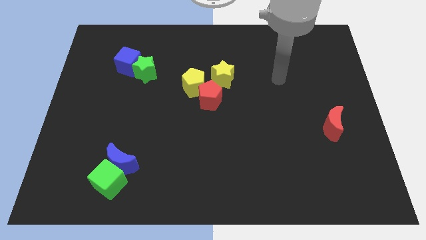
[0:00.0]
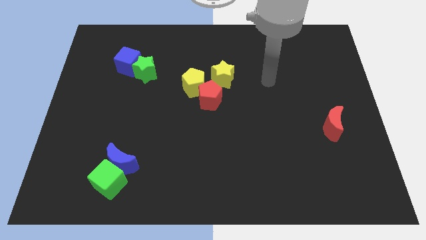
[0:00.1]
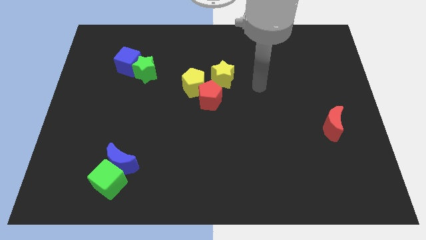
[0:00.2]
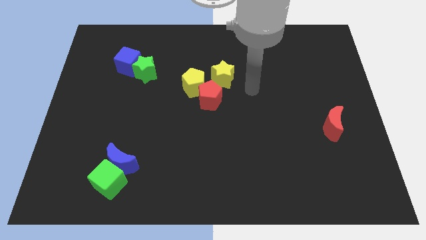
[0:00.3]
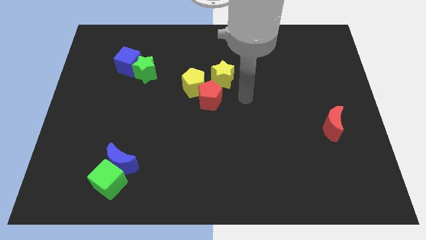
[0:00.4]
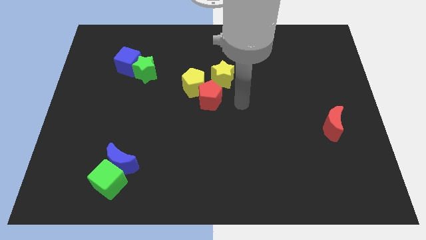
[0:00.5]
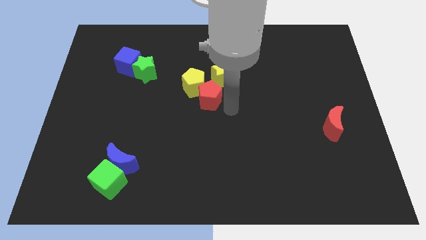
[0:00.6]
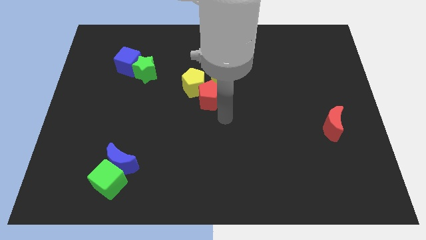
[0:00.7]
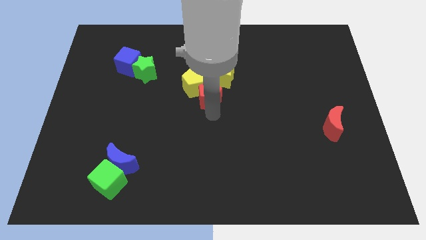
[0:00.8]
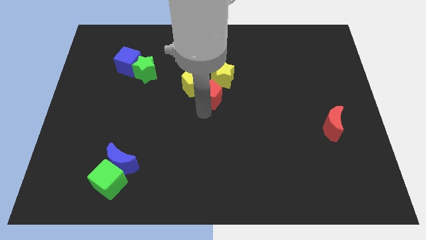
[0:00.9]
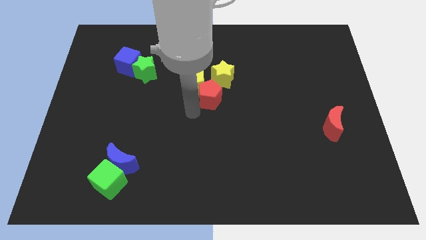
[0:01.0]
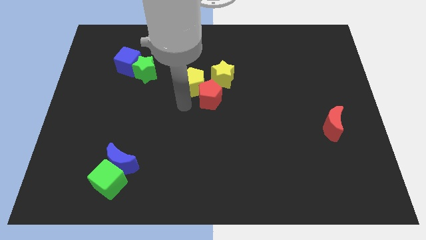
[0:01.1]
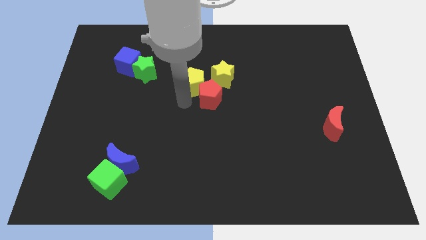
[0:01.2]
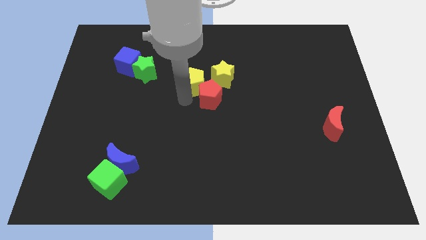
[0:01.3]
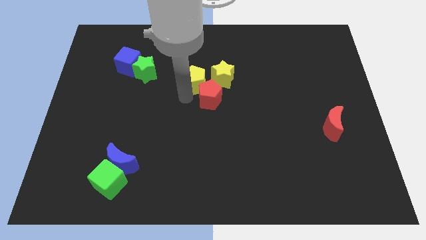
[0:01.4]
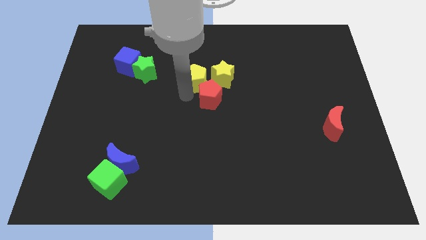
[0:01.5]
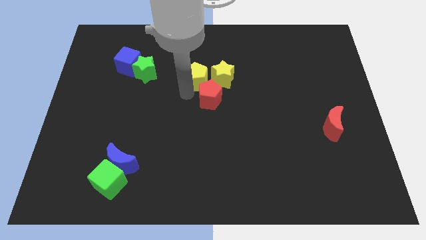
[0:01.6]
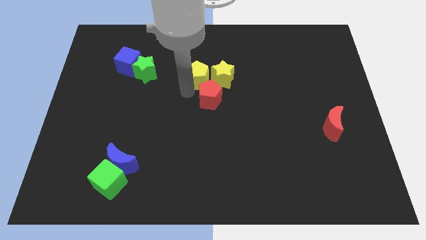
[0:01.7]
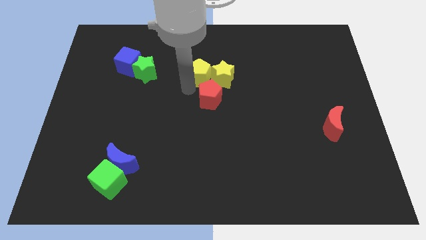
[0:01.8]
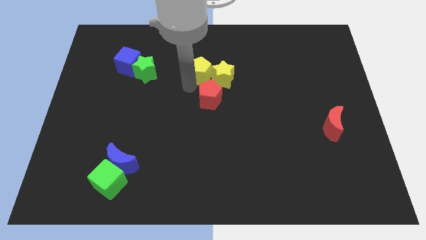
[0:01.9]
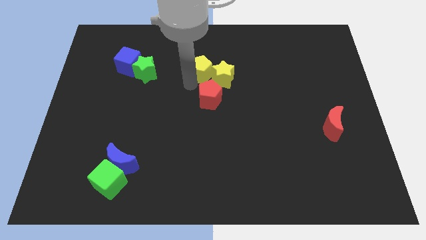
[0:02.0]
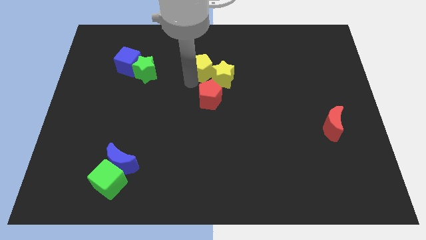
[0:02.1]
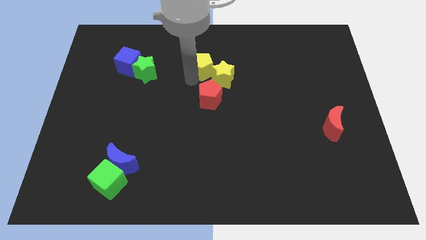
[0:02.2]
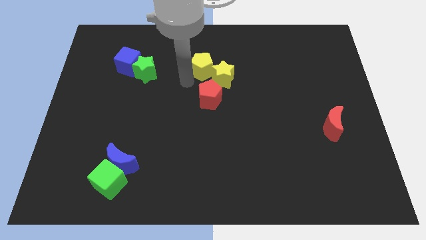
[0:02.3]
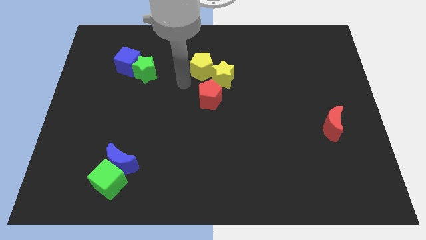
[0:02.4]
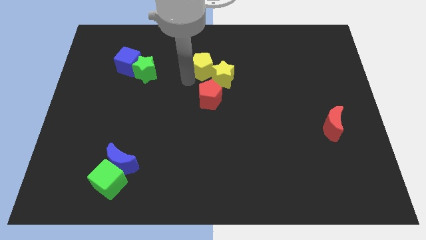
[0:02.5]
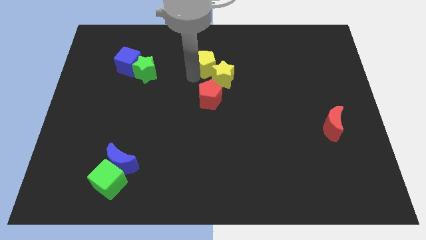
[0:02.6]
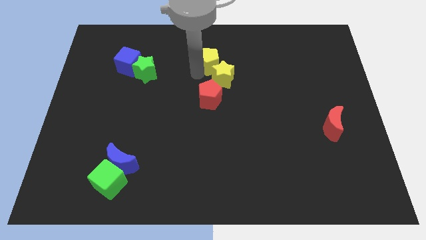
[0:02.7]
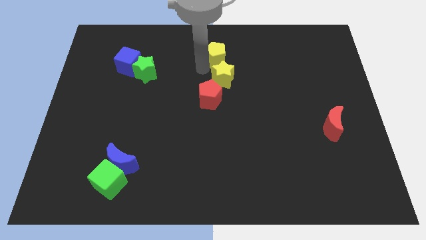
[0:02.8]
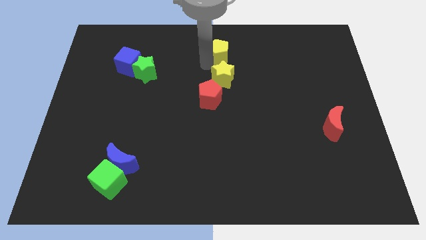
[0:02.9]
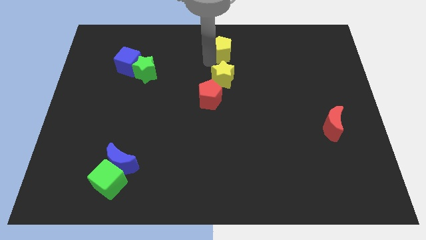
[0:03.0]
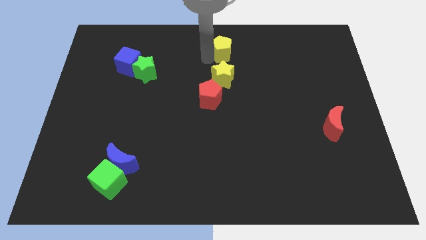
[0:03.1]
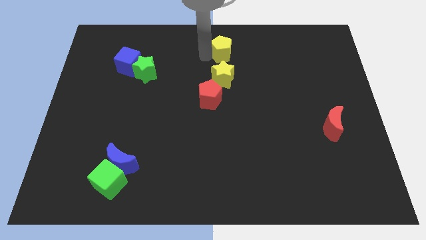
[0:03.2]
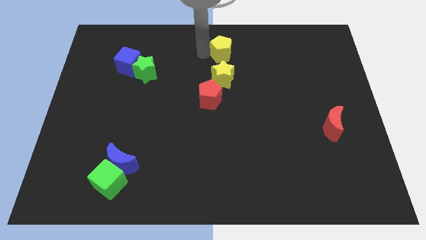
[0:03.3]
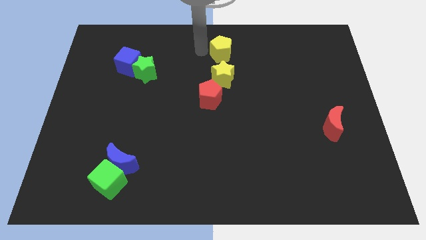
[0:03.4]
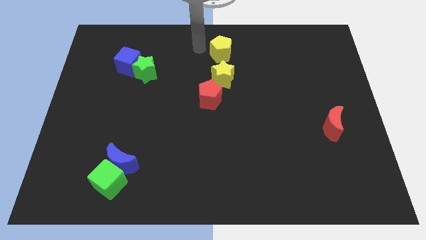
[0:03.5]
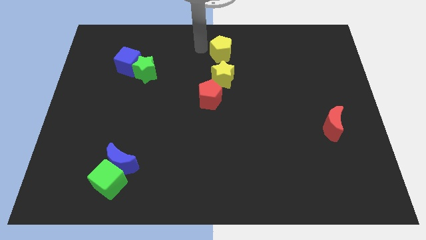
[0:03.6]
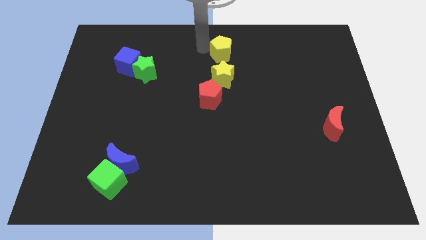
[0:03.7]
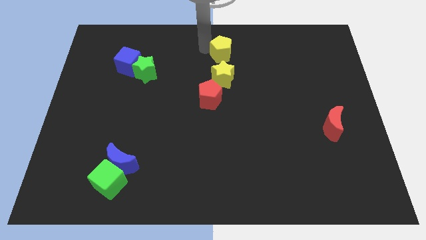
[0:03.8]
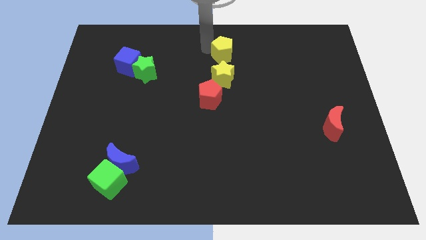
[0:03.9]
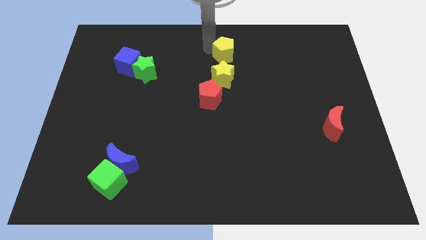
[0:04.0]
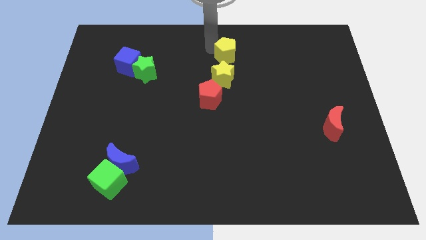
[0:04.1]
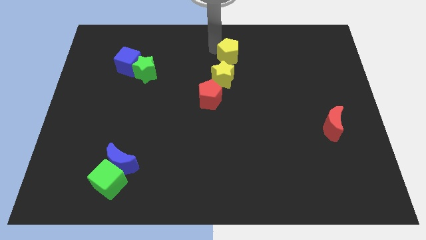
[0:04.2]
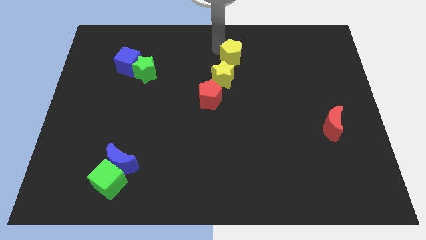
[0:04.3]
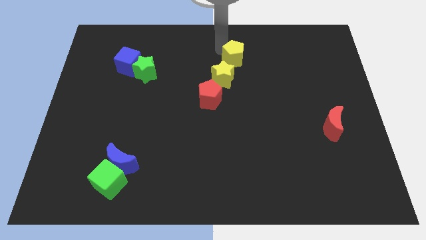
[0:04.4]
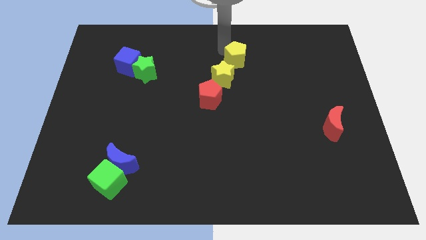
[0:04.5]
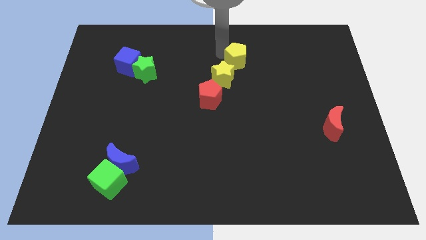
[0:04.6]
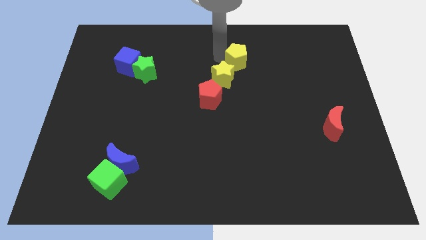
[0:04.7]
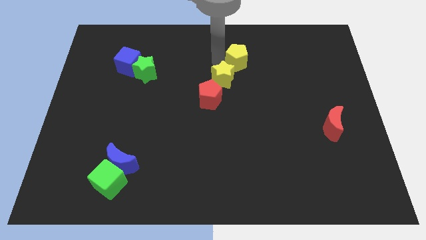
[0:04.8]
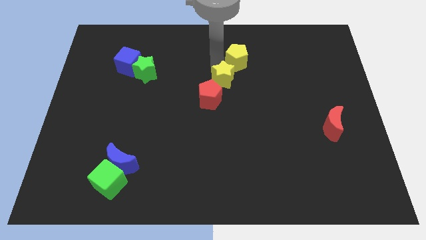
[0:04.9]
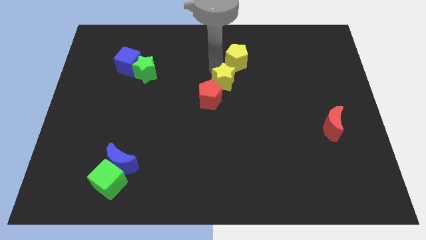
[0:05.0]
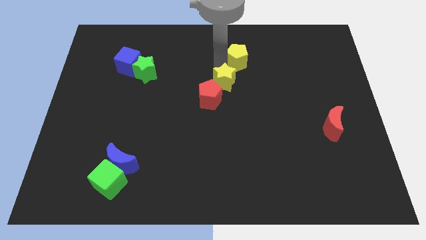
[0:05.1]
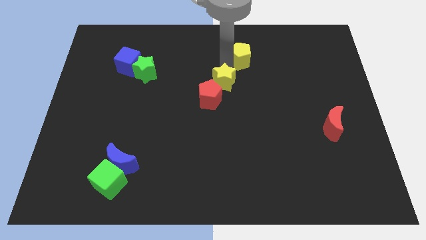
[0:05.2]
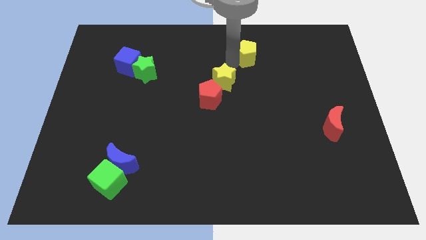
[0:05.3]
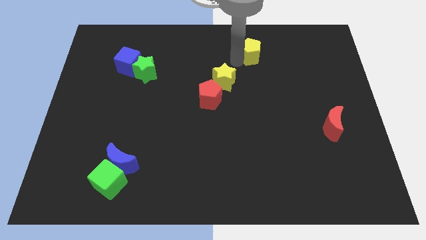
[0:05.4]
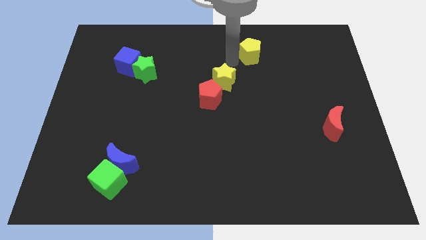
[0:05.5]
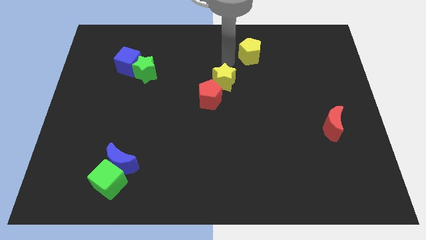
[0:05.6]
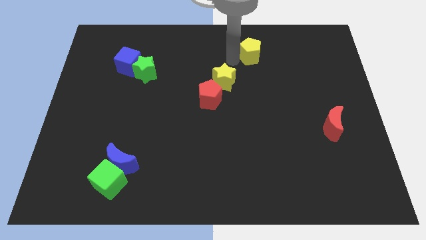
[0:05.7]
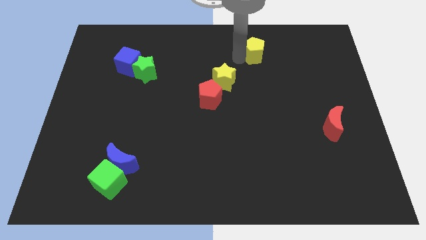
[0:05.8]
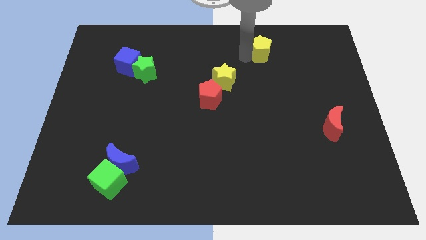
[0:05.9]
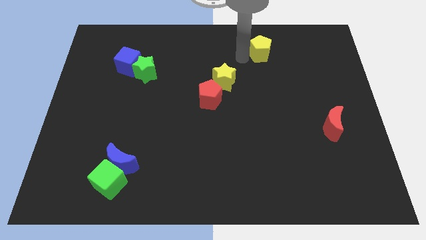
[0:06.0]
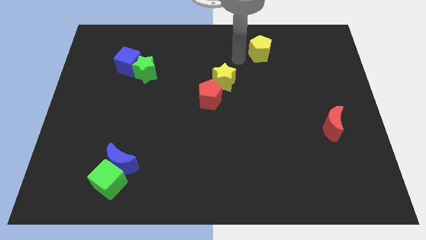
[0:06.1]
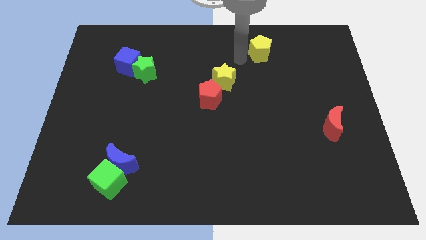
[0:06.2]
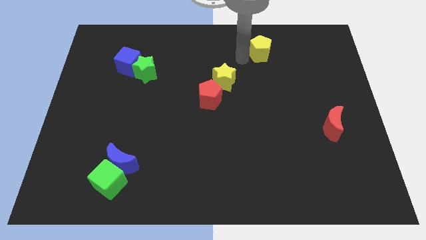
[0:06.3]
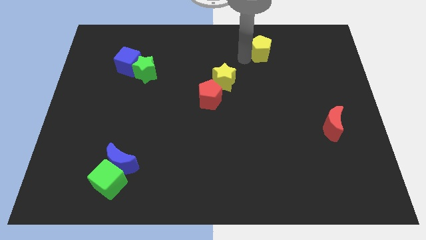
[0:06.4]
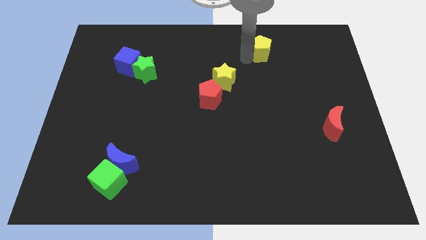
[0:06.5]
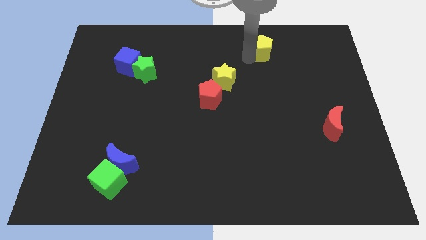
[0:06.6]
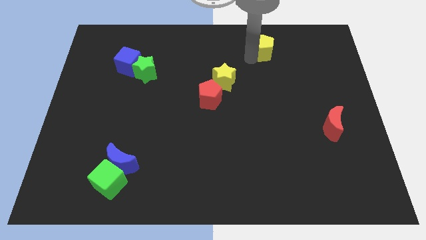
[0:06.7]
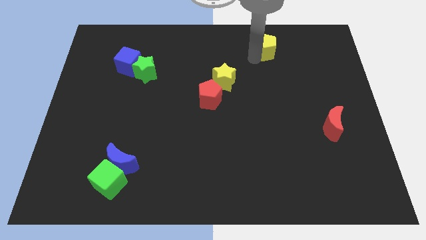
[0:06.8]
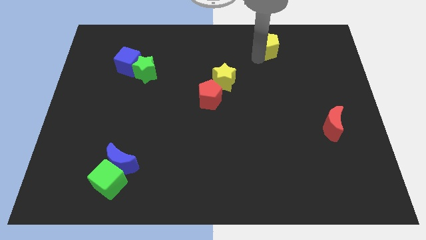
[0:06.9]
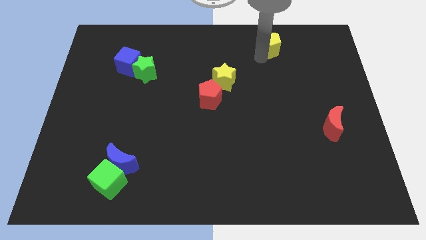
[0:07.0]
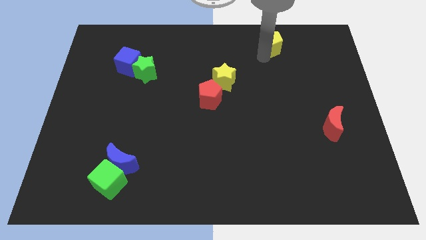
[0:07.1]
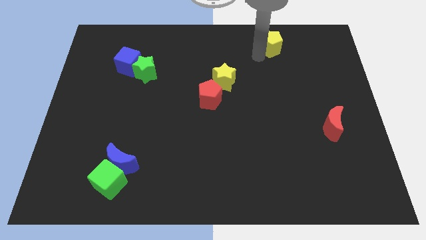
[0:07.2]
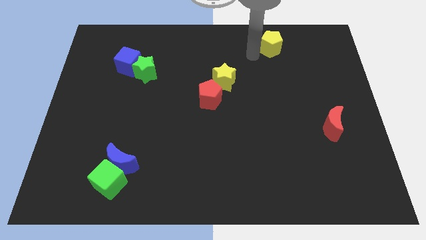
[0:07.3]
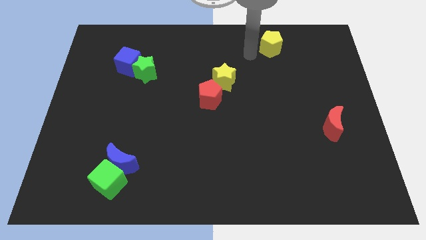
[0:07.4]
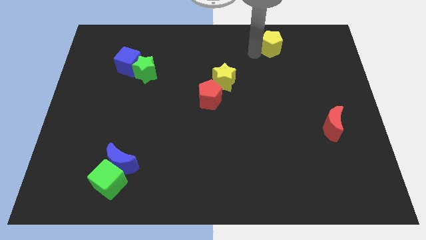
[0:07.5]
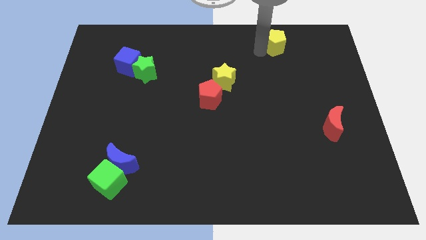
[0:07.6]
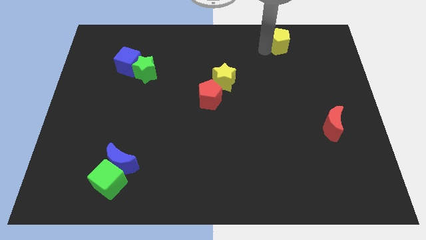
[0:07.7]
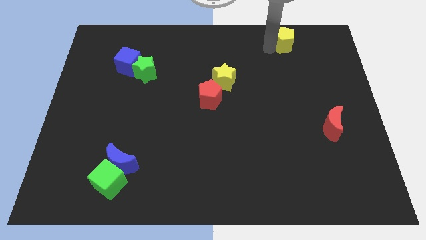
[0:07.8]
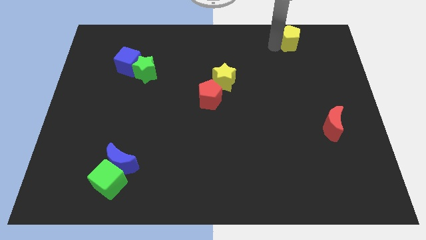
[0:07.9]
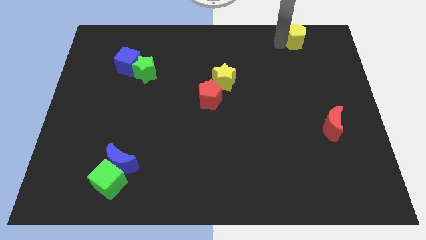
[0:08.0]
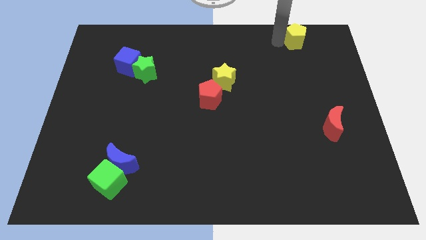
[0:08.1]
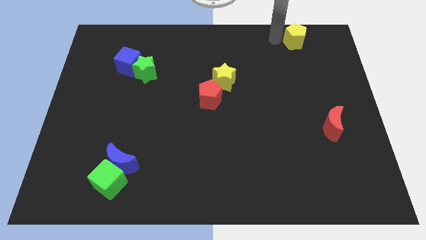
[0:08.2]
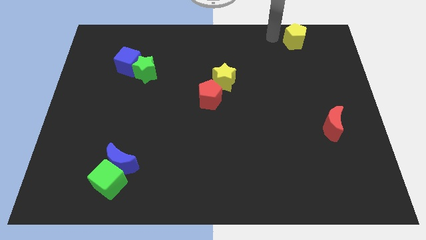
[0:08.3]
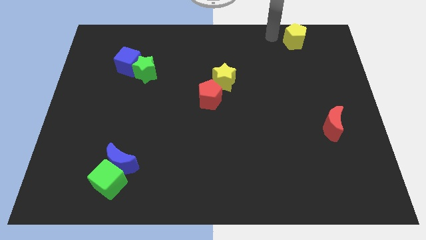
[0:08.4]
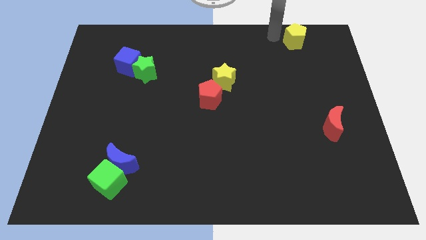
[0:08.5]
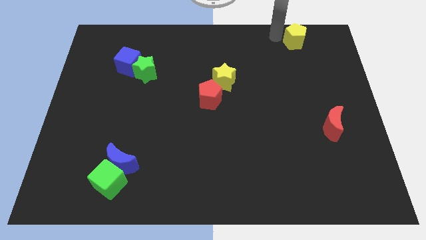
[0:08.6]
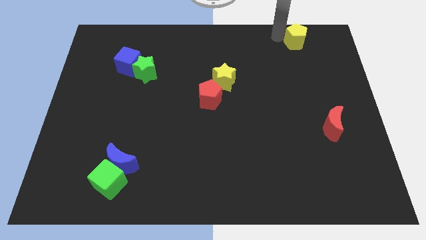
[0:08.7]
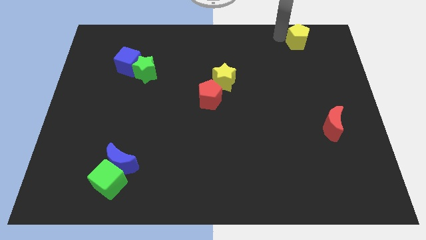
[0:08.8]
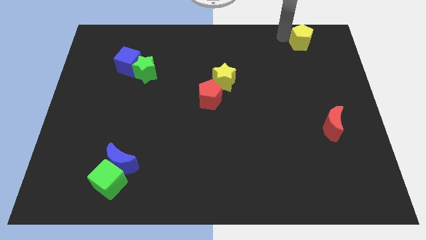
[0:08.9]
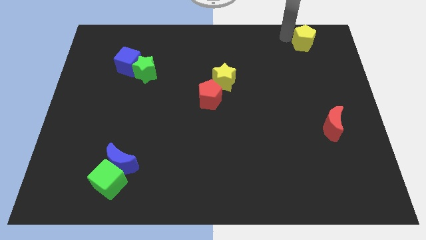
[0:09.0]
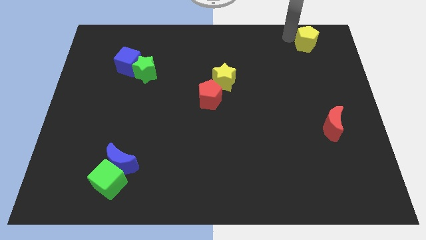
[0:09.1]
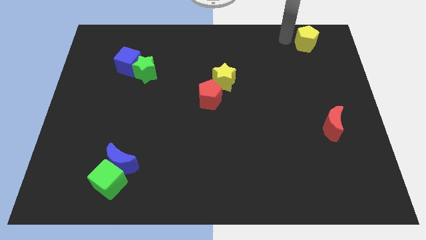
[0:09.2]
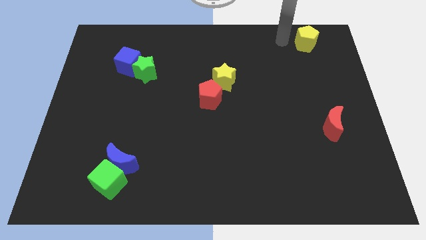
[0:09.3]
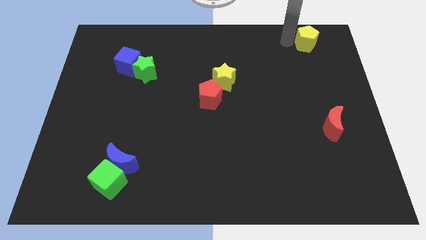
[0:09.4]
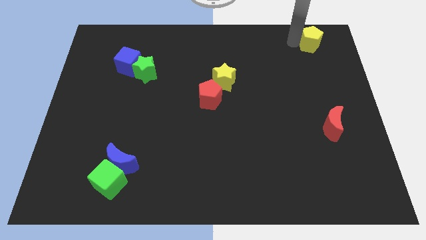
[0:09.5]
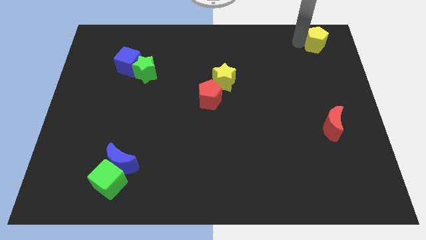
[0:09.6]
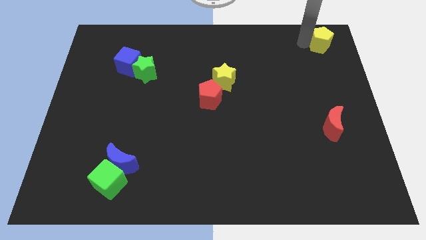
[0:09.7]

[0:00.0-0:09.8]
slide the yellow pentagon to the upper right corner
